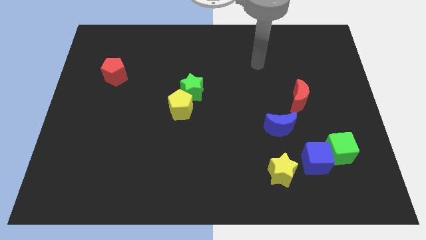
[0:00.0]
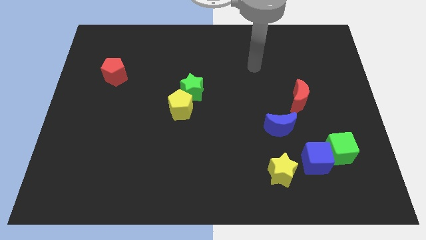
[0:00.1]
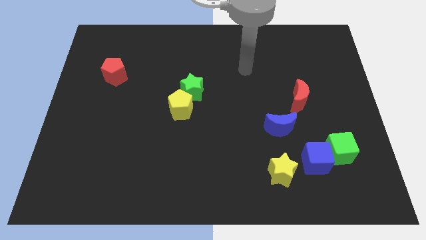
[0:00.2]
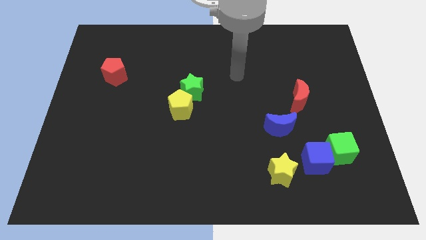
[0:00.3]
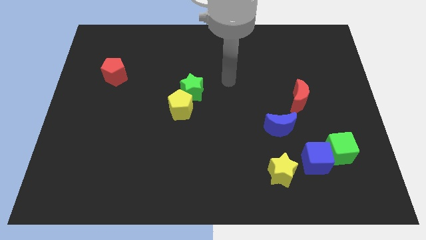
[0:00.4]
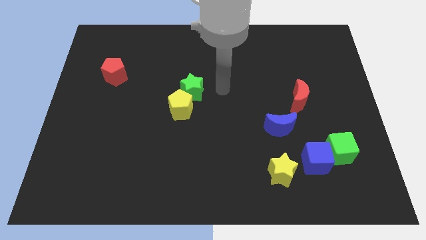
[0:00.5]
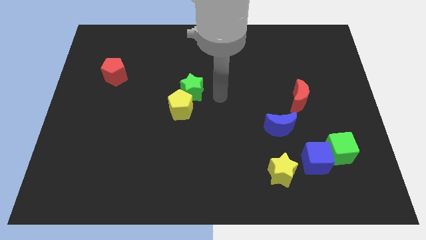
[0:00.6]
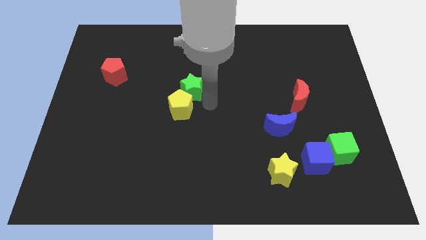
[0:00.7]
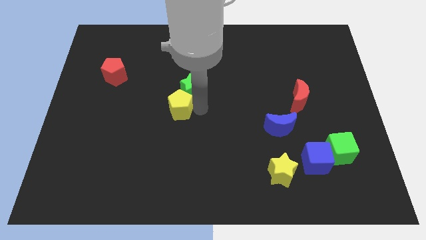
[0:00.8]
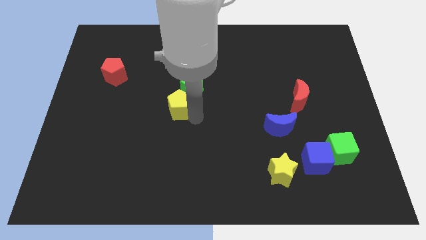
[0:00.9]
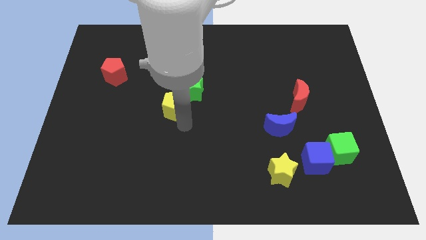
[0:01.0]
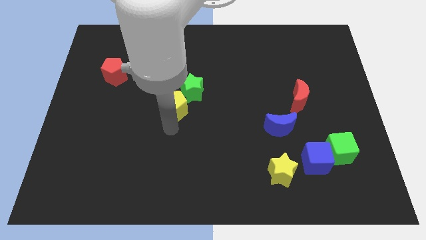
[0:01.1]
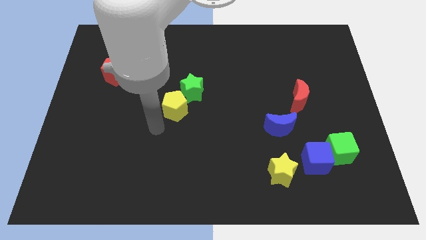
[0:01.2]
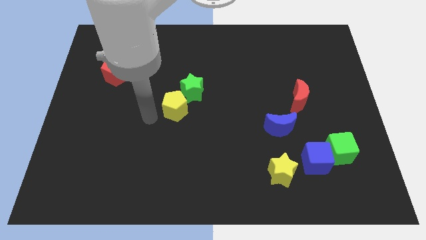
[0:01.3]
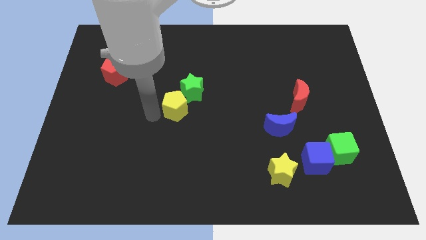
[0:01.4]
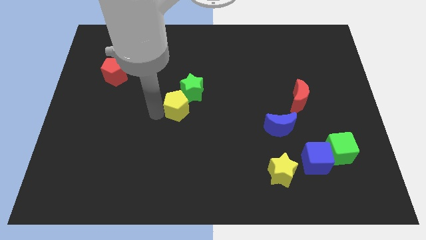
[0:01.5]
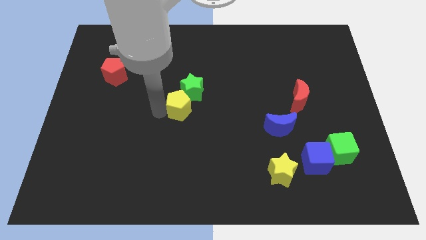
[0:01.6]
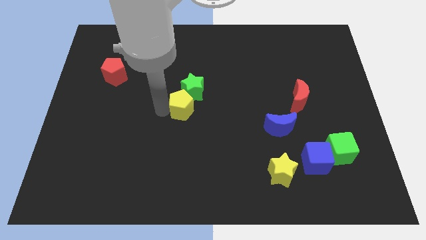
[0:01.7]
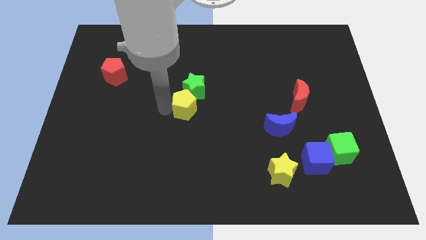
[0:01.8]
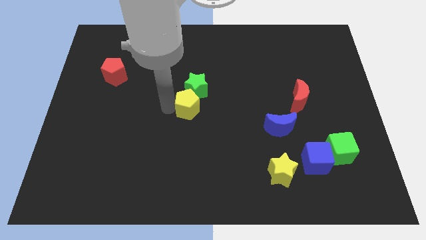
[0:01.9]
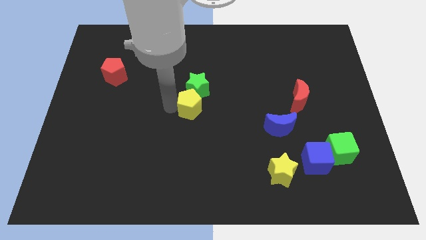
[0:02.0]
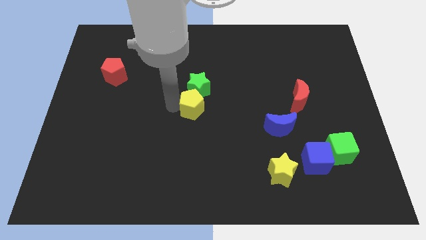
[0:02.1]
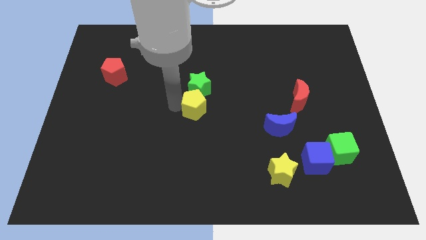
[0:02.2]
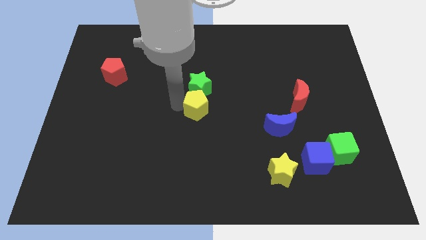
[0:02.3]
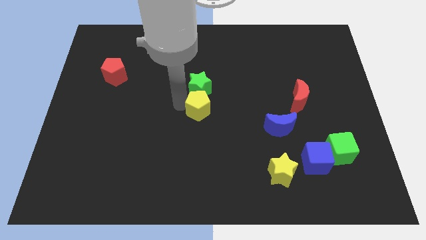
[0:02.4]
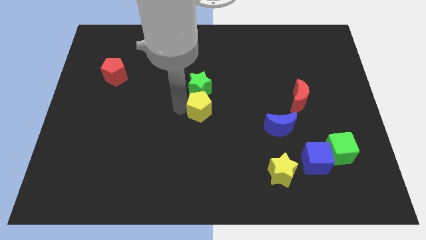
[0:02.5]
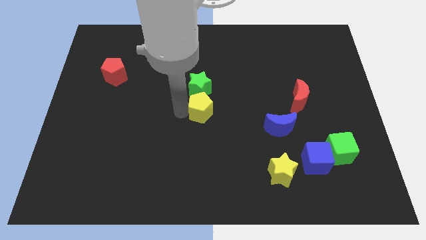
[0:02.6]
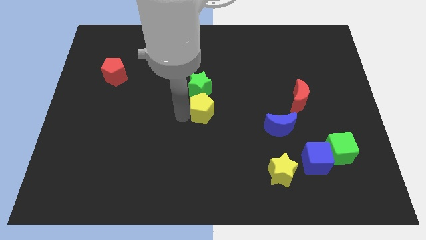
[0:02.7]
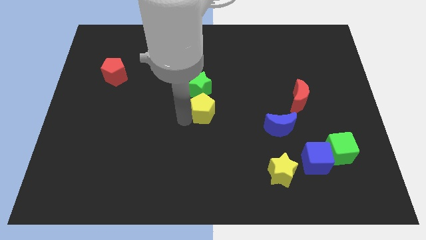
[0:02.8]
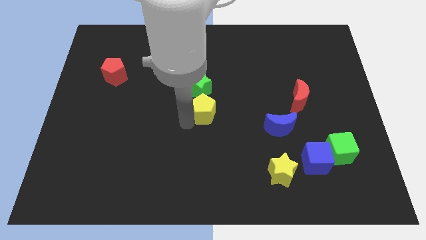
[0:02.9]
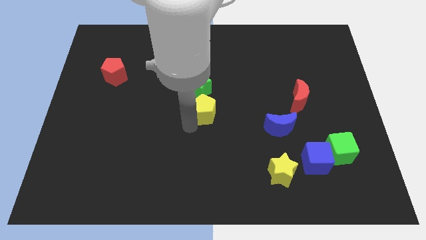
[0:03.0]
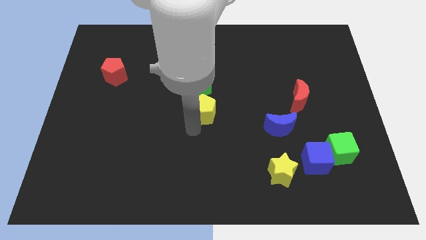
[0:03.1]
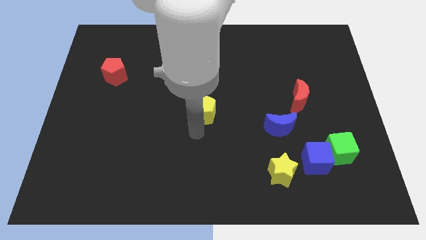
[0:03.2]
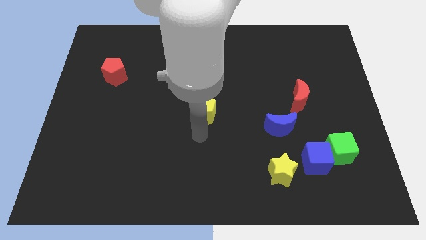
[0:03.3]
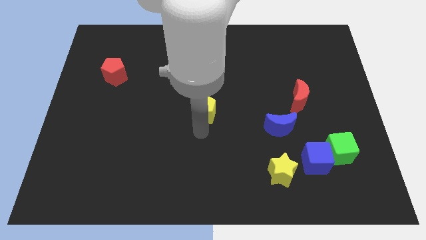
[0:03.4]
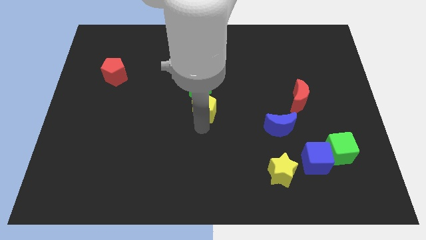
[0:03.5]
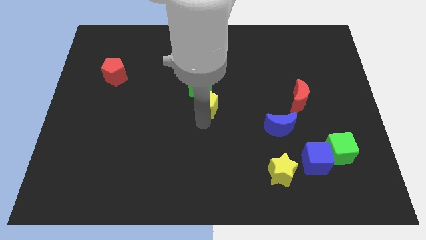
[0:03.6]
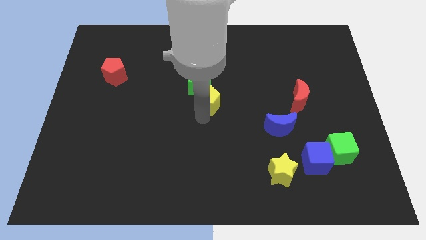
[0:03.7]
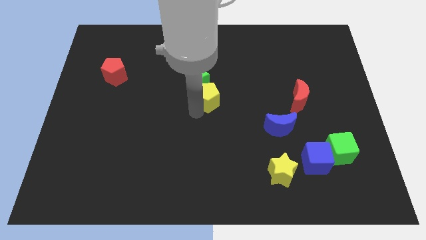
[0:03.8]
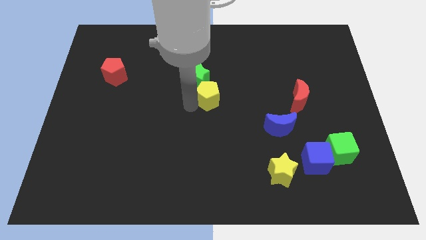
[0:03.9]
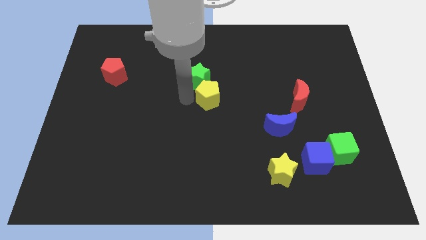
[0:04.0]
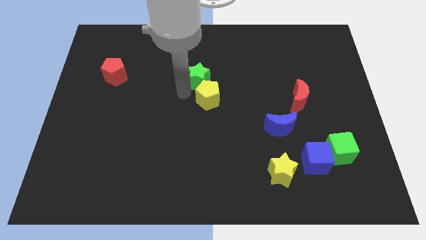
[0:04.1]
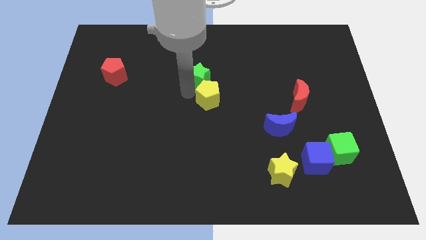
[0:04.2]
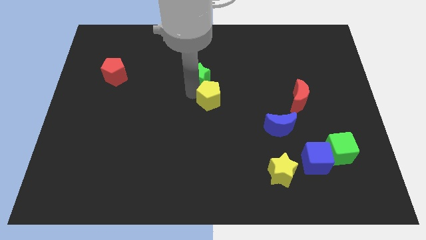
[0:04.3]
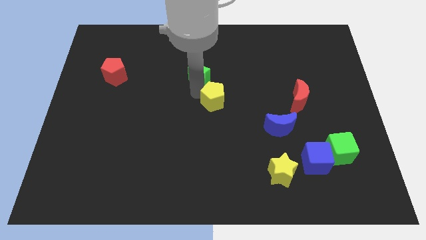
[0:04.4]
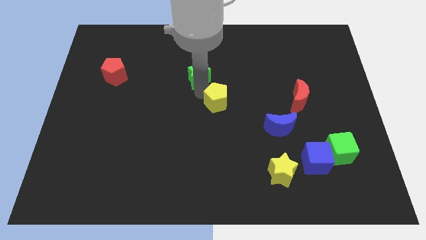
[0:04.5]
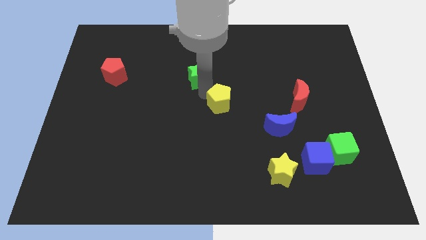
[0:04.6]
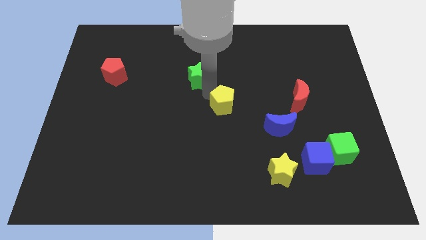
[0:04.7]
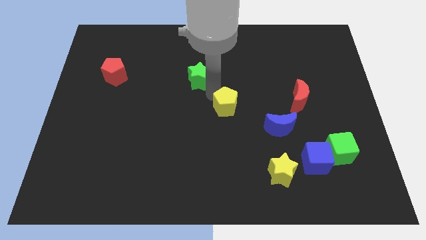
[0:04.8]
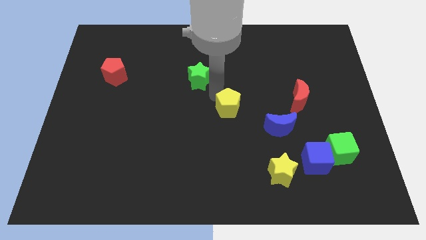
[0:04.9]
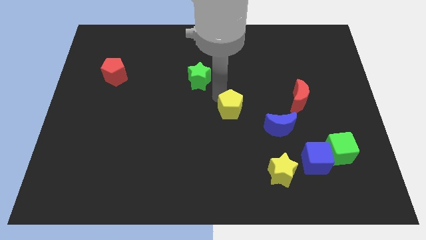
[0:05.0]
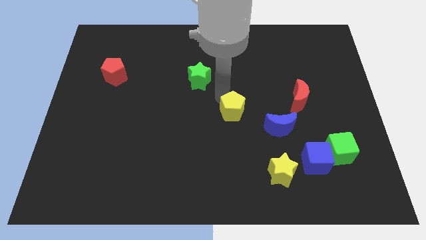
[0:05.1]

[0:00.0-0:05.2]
move the yellow pentagon diagonally up and to the left of the blue moon

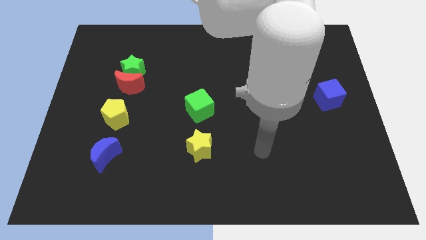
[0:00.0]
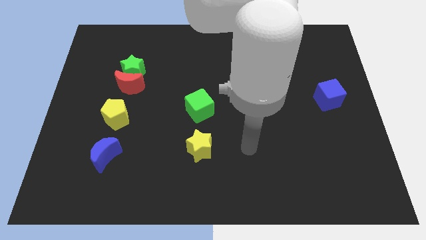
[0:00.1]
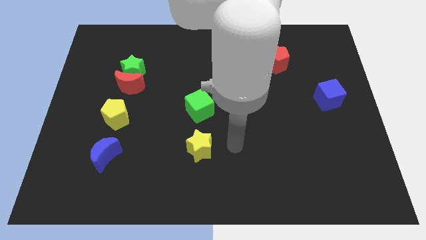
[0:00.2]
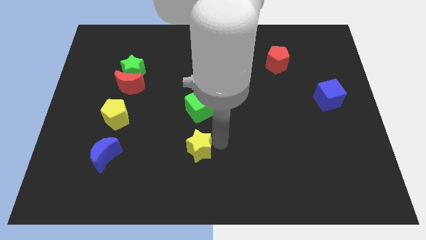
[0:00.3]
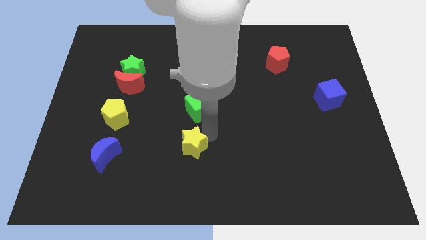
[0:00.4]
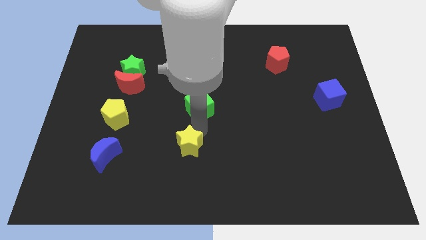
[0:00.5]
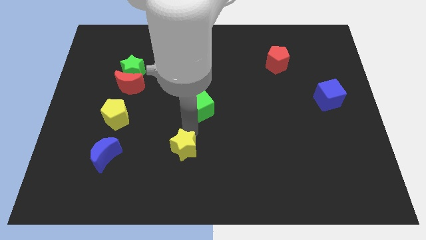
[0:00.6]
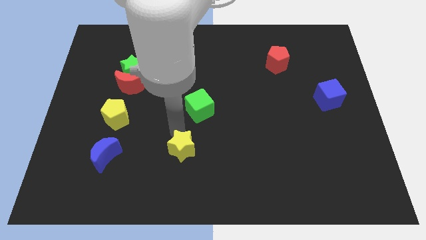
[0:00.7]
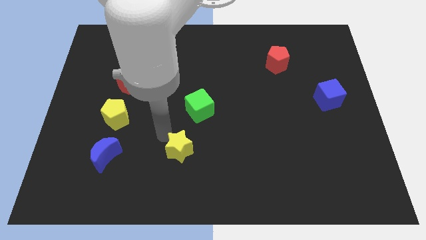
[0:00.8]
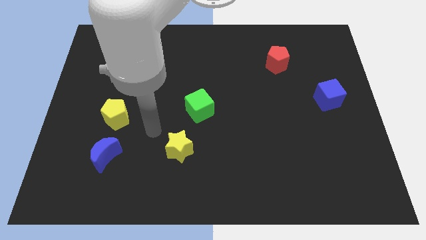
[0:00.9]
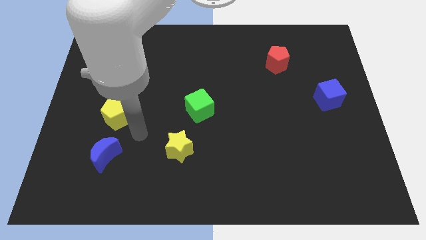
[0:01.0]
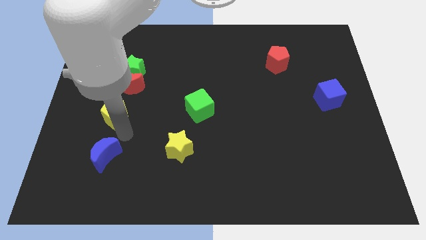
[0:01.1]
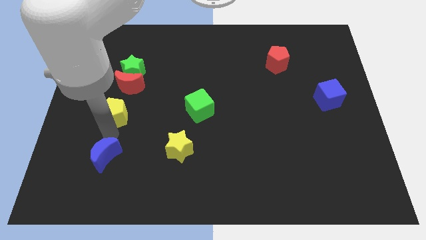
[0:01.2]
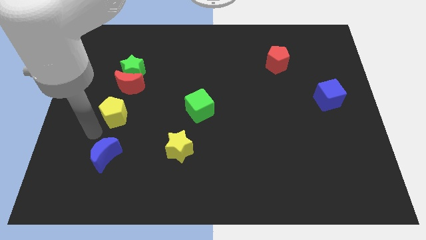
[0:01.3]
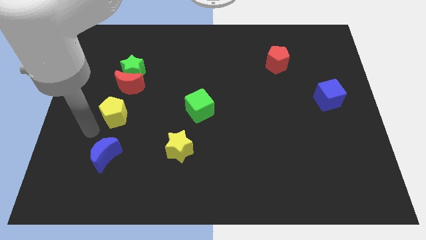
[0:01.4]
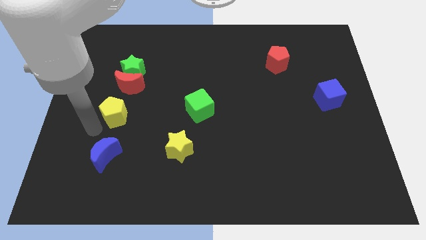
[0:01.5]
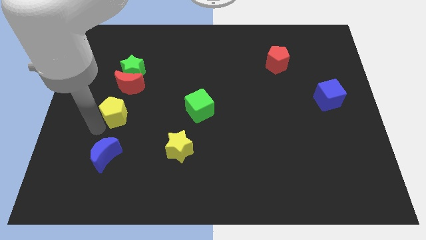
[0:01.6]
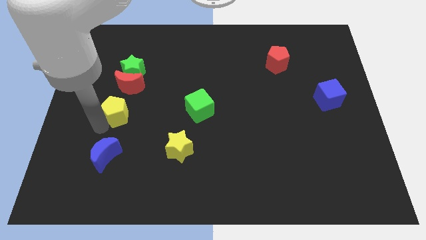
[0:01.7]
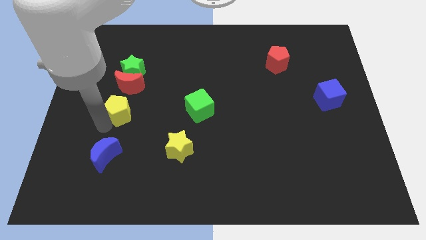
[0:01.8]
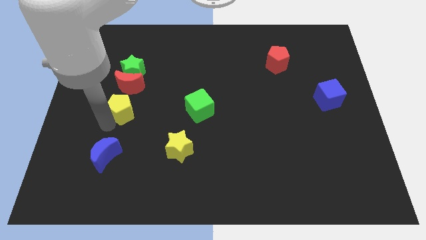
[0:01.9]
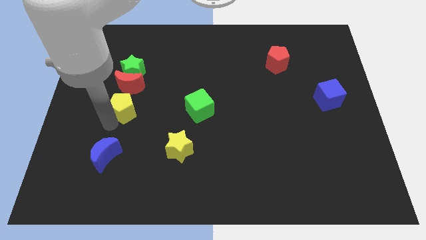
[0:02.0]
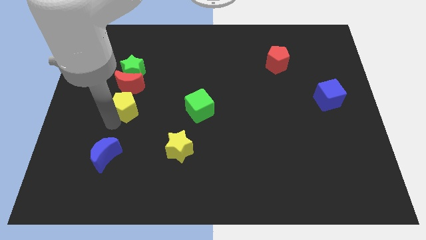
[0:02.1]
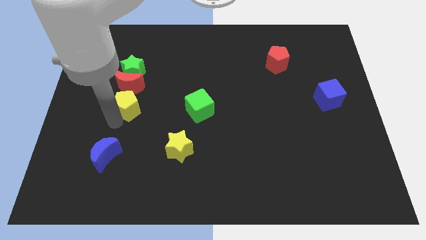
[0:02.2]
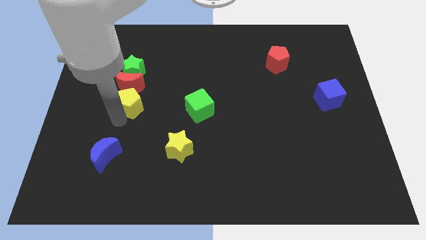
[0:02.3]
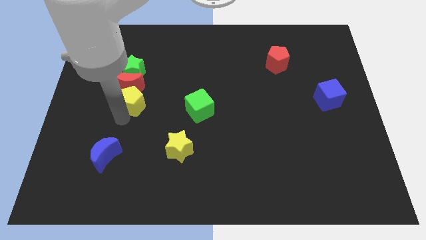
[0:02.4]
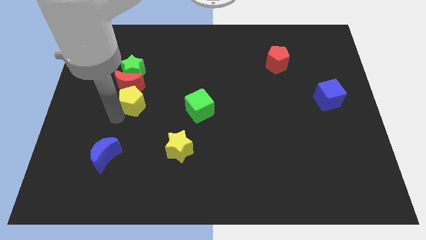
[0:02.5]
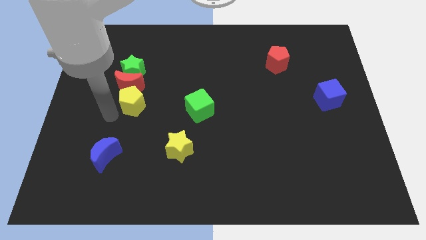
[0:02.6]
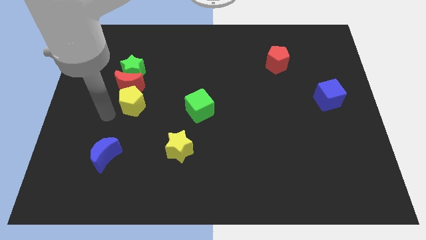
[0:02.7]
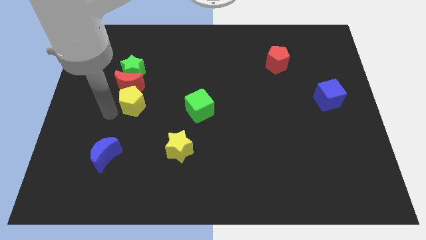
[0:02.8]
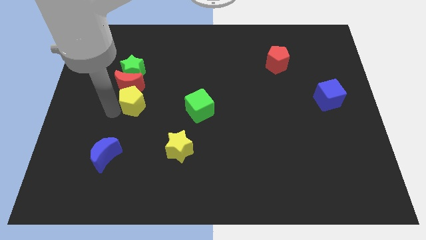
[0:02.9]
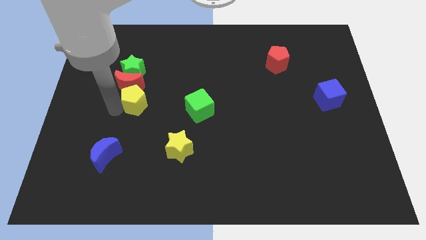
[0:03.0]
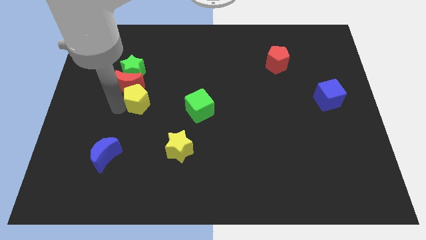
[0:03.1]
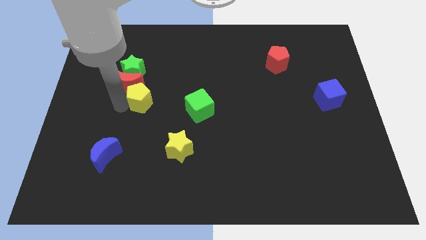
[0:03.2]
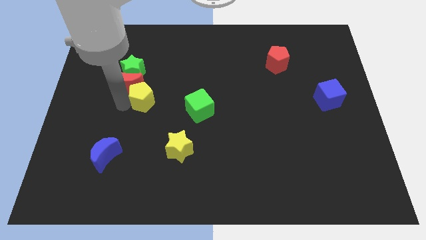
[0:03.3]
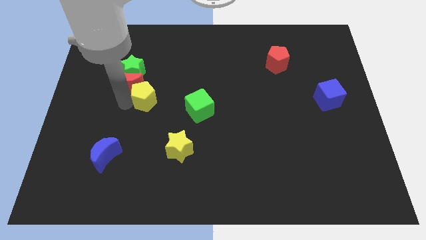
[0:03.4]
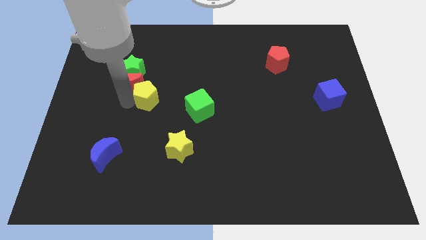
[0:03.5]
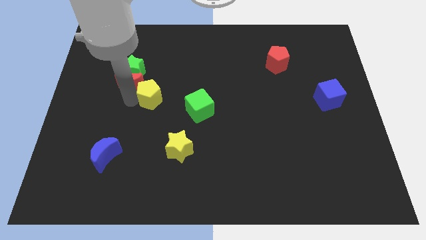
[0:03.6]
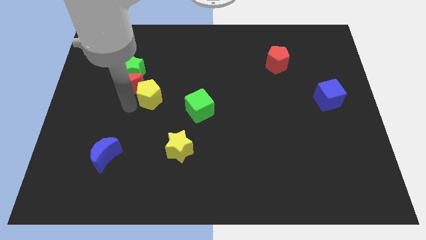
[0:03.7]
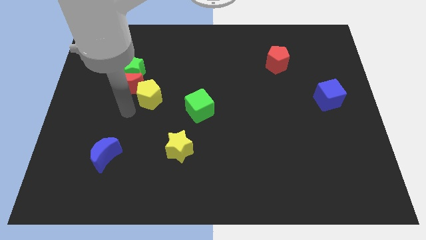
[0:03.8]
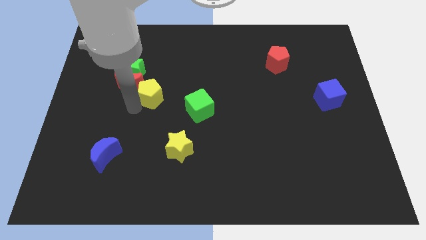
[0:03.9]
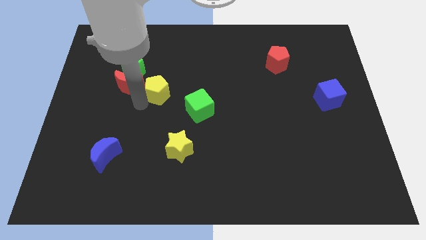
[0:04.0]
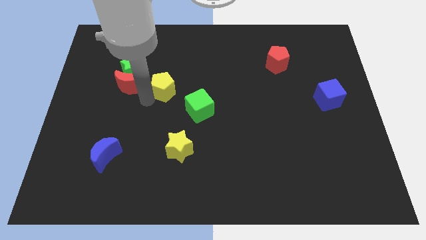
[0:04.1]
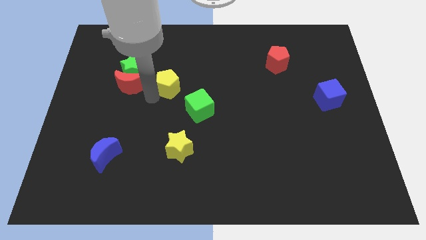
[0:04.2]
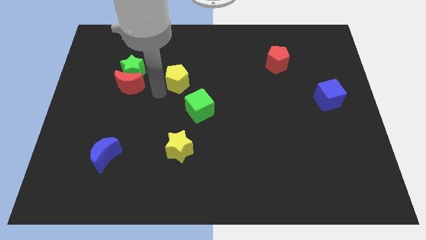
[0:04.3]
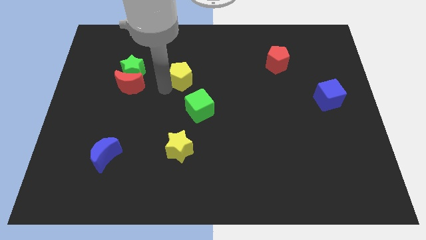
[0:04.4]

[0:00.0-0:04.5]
slide the yellow pentagon to the top side of the green cube
